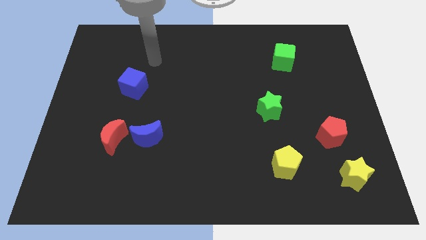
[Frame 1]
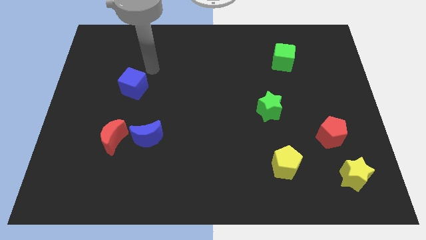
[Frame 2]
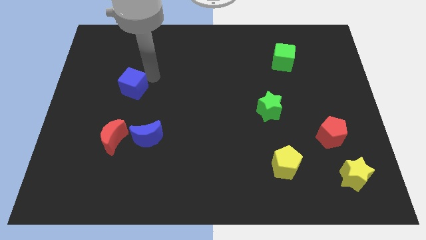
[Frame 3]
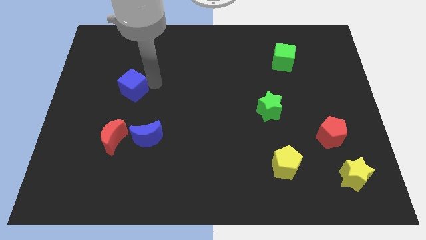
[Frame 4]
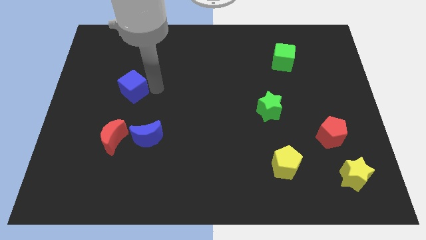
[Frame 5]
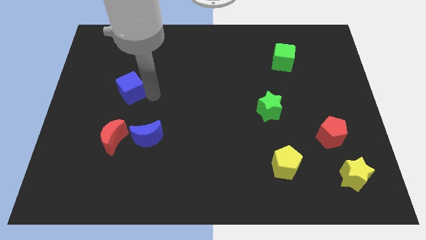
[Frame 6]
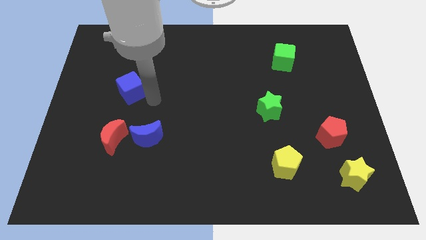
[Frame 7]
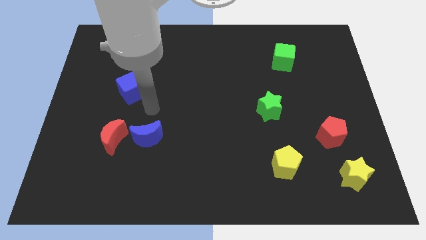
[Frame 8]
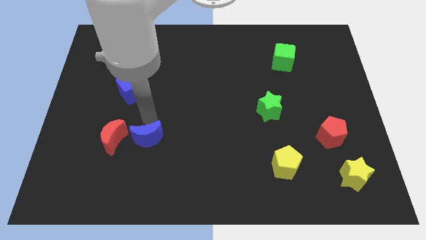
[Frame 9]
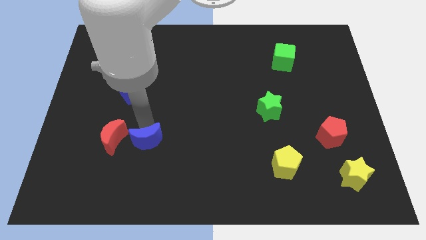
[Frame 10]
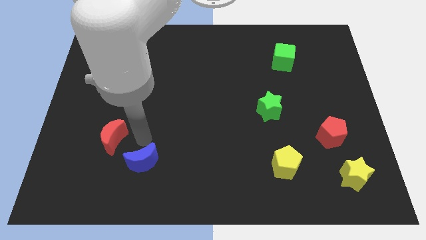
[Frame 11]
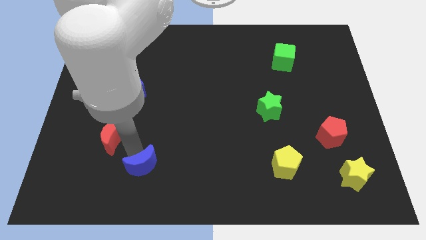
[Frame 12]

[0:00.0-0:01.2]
move the red moon away from the blue moon

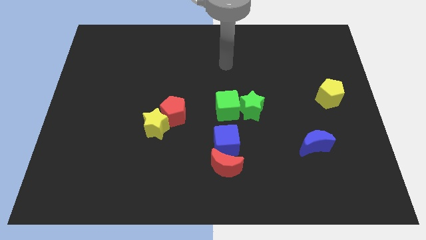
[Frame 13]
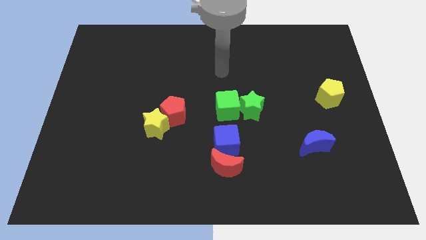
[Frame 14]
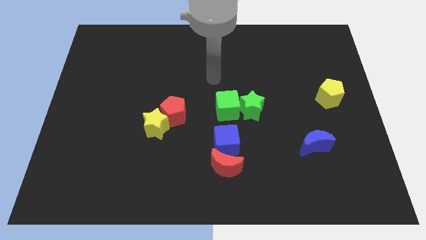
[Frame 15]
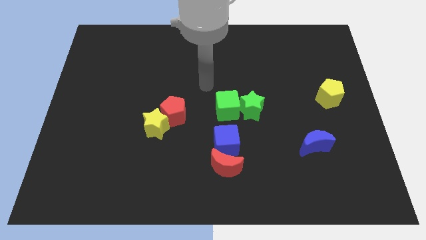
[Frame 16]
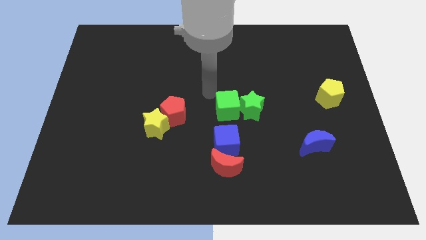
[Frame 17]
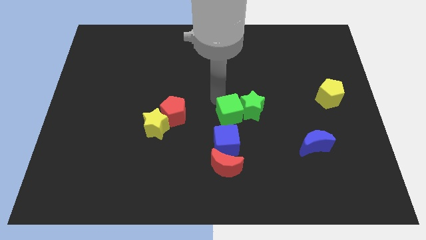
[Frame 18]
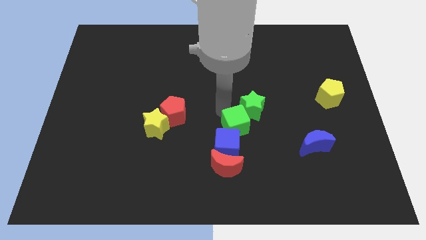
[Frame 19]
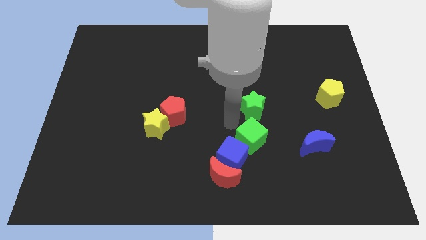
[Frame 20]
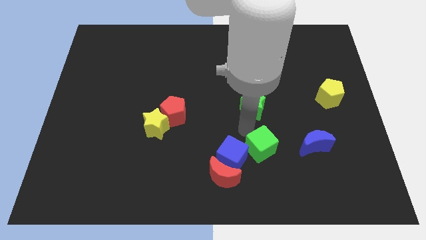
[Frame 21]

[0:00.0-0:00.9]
move the green star away from the green cube

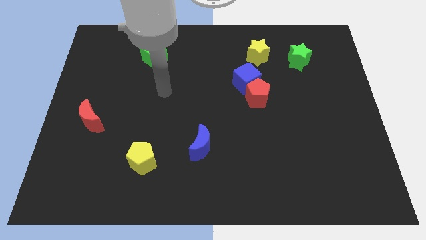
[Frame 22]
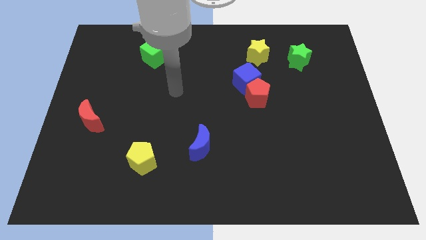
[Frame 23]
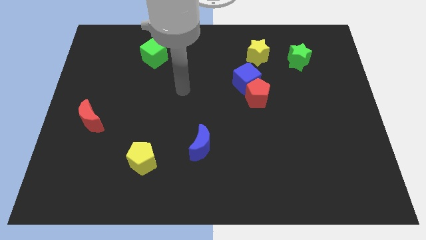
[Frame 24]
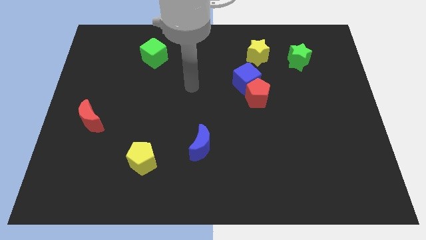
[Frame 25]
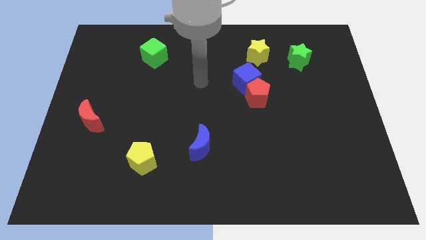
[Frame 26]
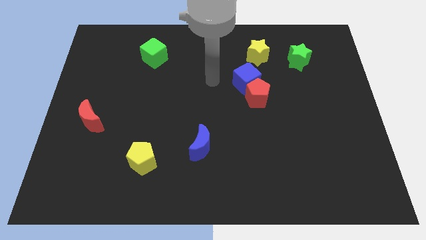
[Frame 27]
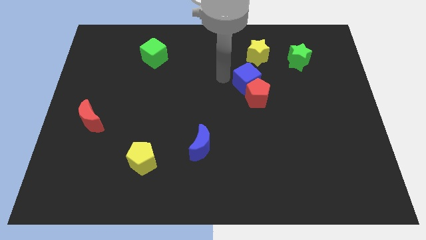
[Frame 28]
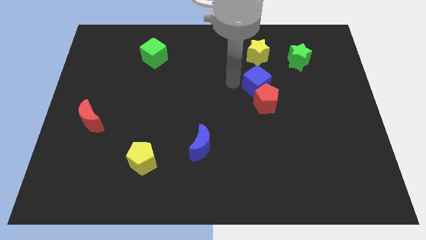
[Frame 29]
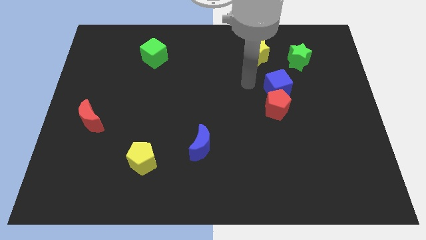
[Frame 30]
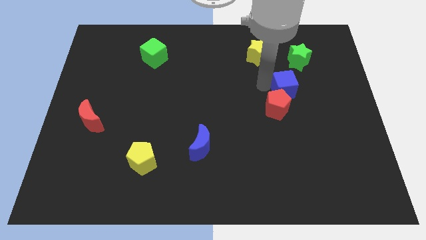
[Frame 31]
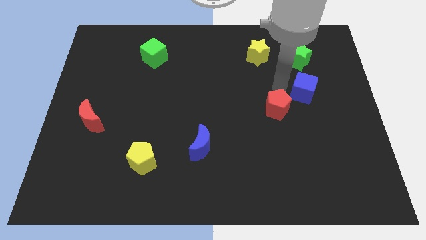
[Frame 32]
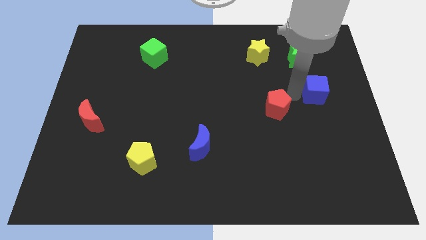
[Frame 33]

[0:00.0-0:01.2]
pull the red pentagon apart from the blue cube

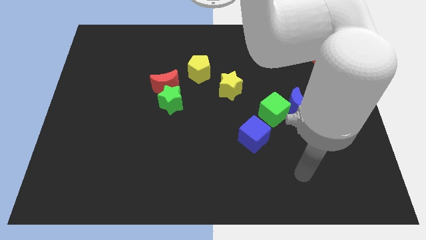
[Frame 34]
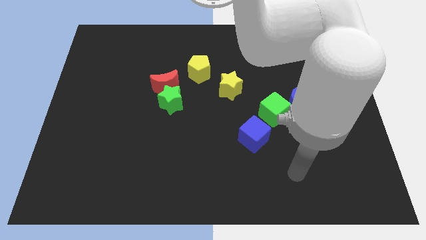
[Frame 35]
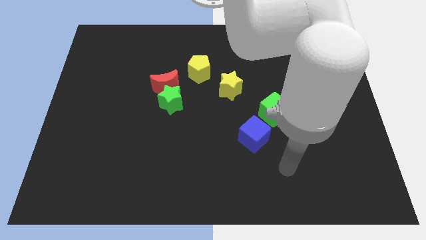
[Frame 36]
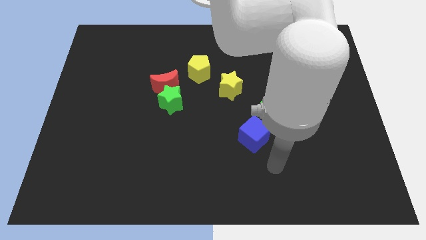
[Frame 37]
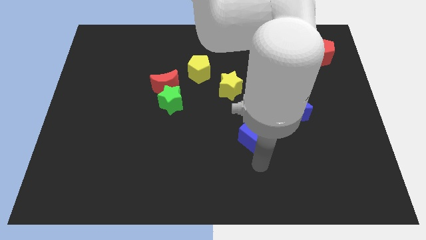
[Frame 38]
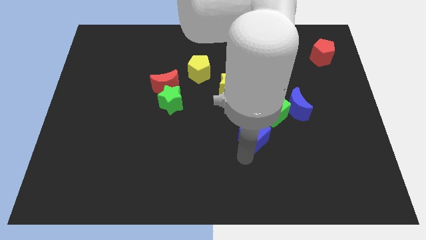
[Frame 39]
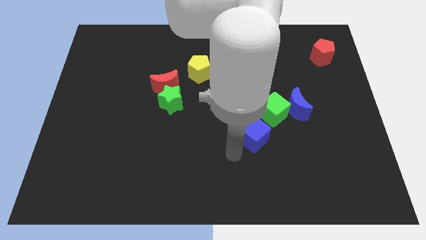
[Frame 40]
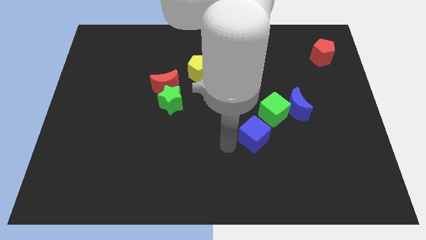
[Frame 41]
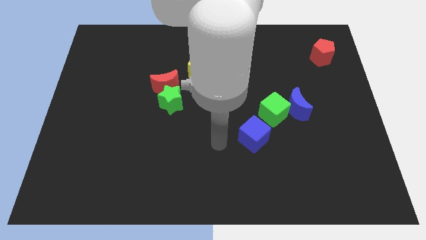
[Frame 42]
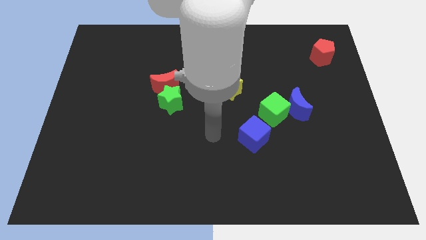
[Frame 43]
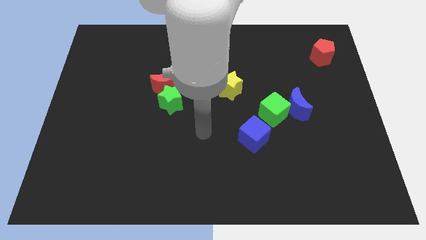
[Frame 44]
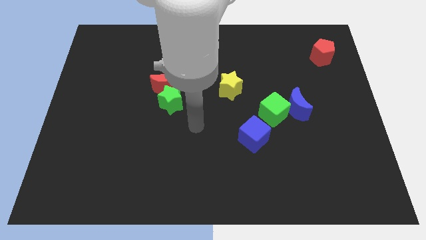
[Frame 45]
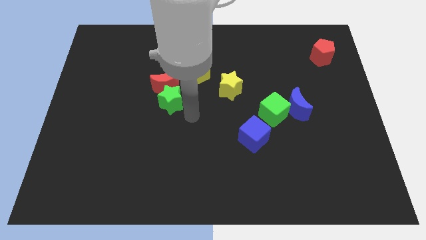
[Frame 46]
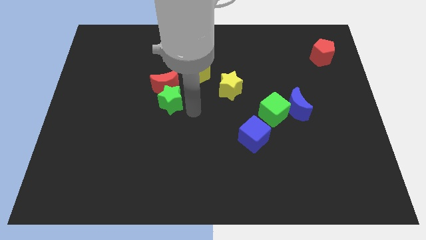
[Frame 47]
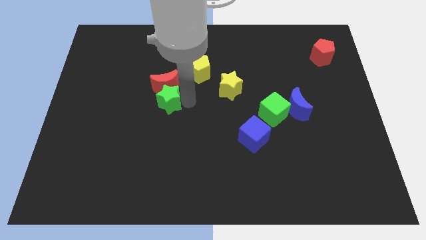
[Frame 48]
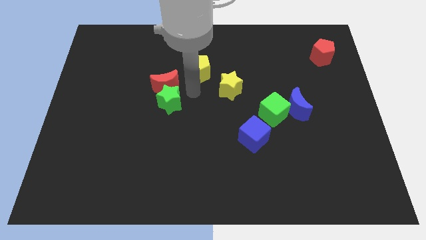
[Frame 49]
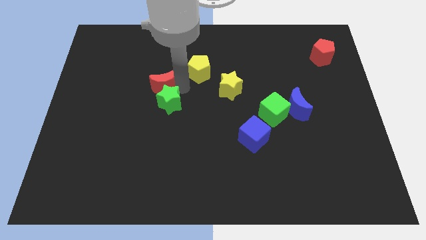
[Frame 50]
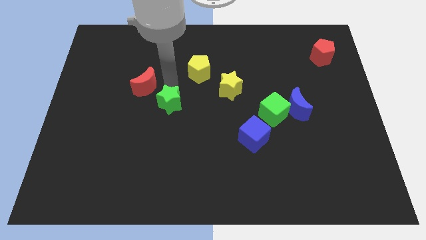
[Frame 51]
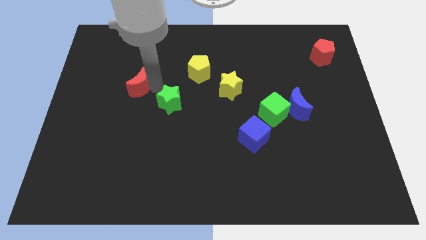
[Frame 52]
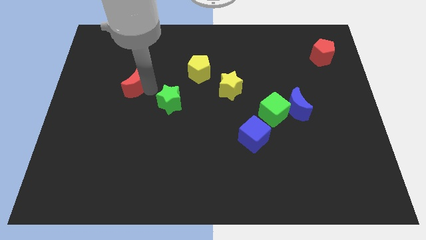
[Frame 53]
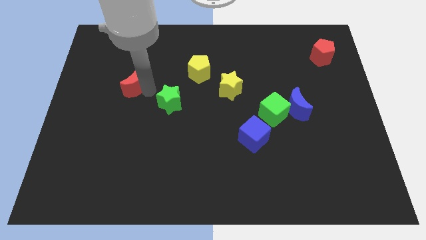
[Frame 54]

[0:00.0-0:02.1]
separate the green star from the red moon

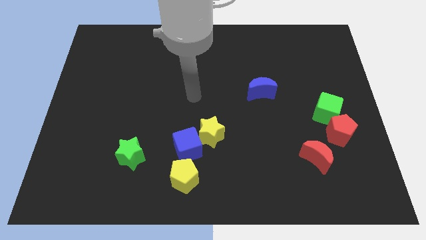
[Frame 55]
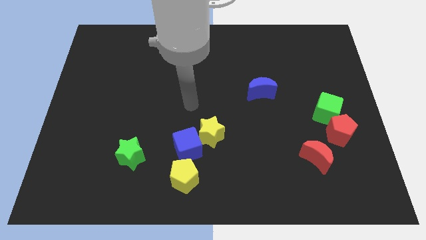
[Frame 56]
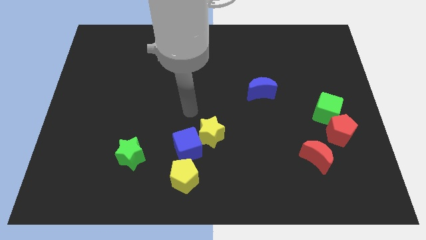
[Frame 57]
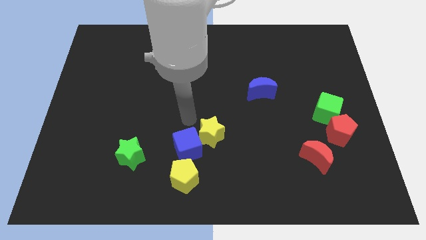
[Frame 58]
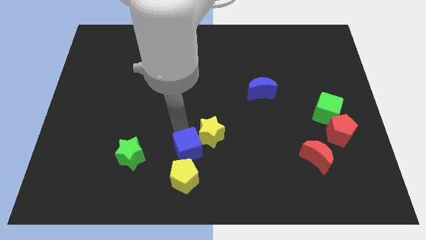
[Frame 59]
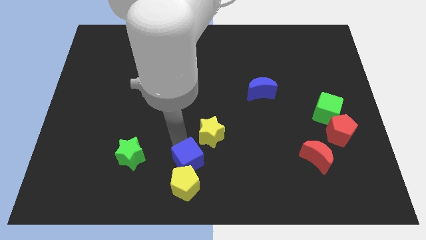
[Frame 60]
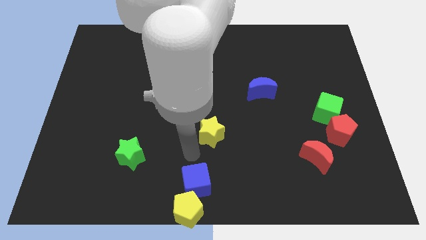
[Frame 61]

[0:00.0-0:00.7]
separate the yellow star from the blue cube

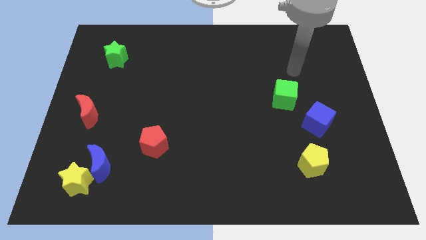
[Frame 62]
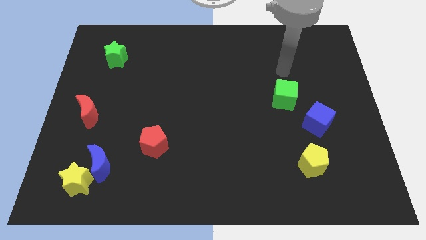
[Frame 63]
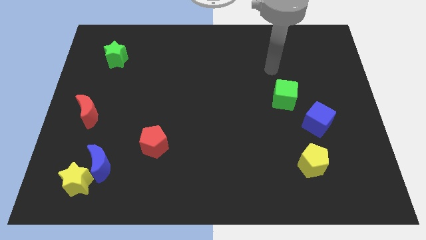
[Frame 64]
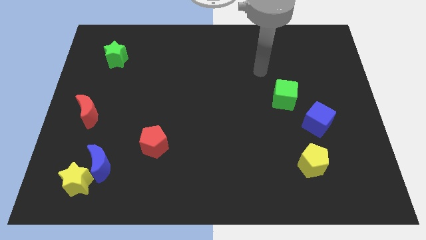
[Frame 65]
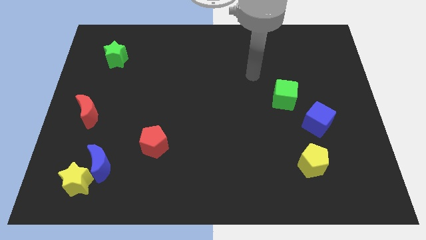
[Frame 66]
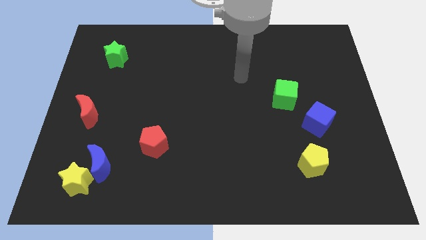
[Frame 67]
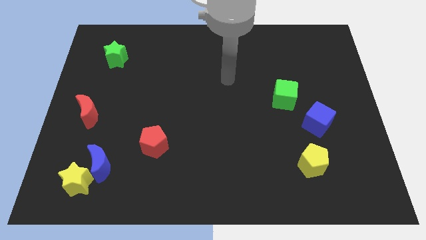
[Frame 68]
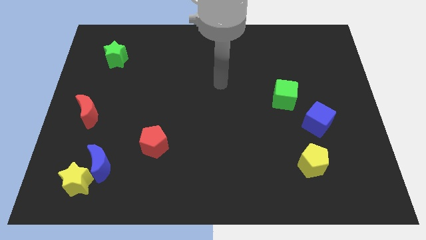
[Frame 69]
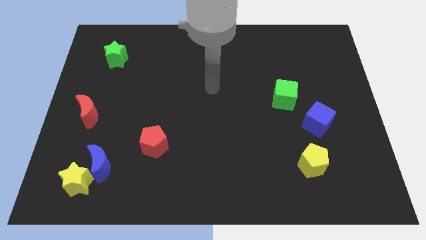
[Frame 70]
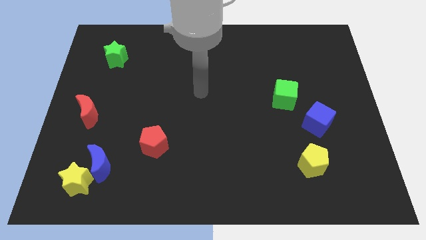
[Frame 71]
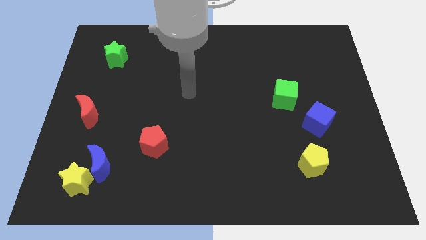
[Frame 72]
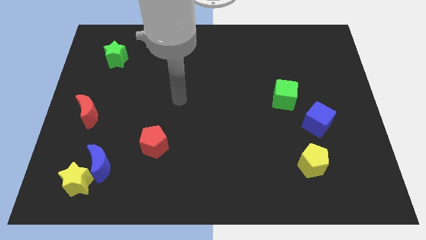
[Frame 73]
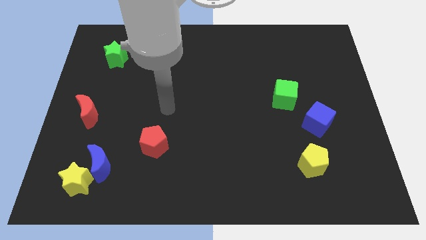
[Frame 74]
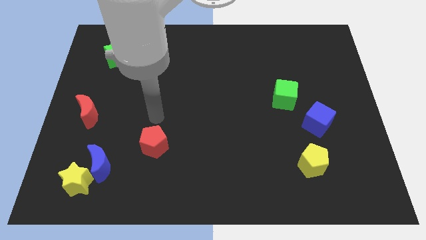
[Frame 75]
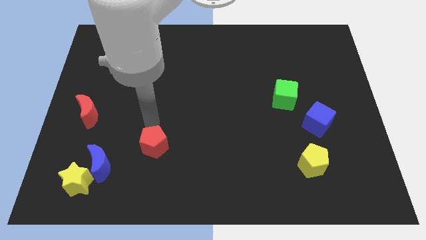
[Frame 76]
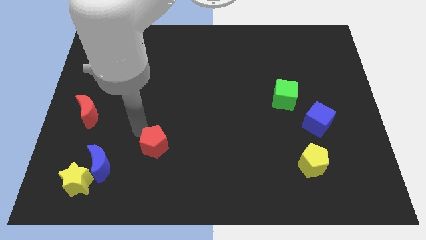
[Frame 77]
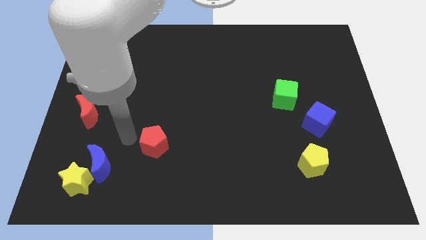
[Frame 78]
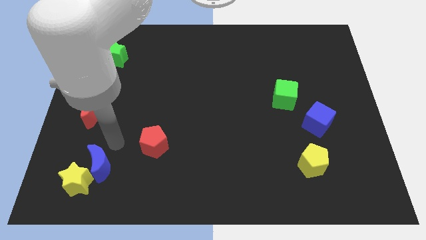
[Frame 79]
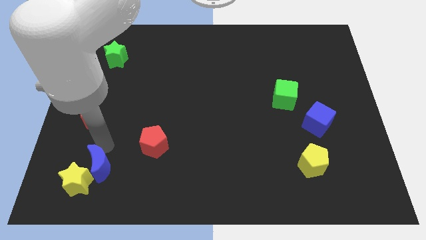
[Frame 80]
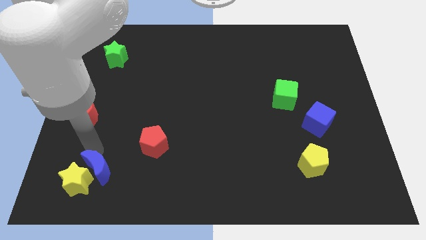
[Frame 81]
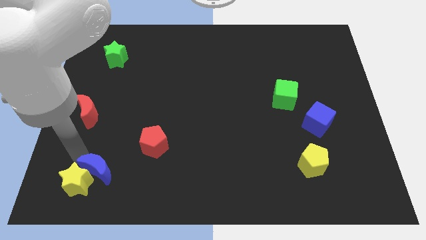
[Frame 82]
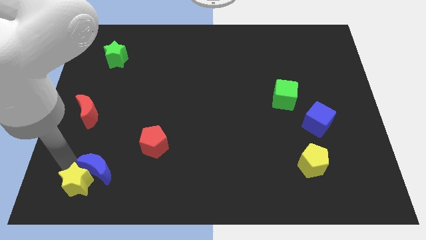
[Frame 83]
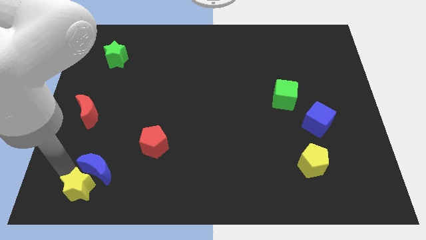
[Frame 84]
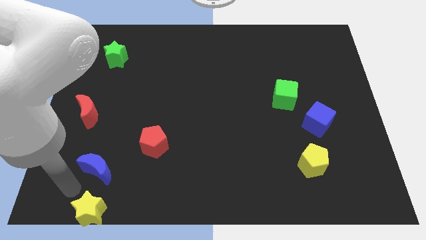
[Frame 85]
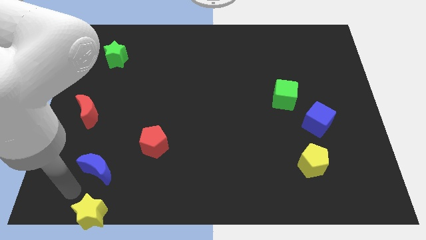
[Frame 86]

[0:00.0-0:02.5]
separate the blue moon from the yellow star

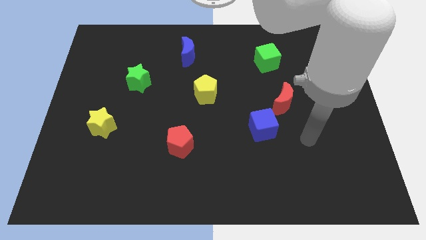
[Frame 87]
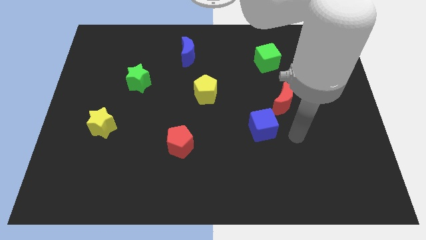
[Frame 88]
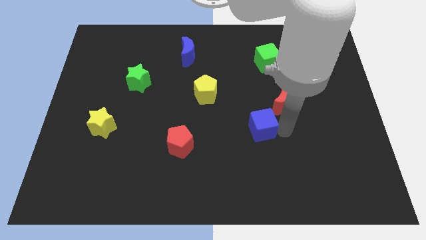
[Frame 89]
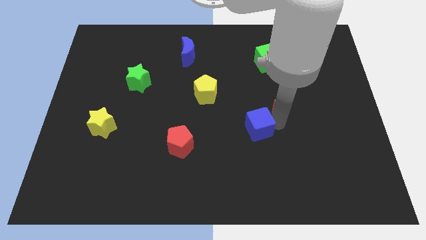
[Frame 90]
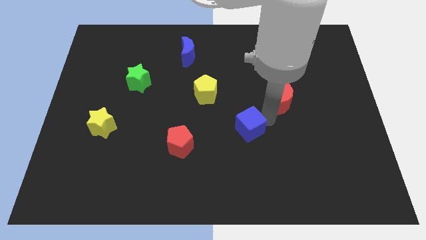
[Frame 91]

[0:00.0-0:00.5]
separate the red moon from the blue cube

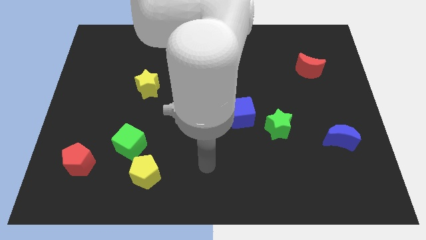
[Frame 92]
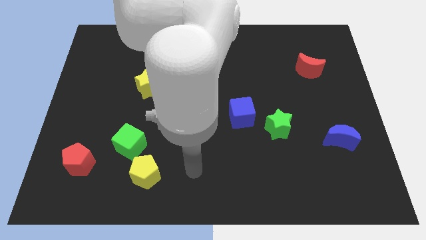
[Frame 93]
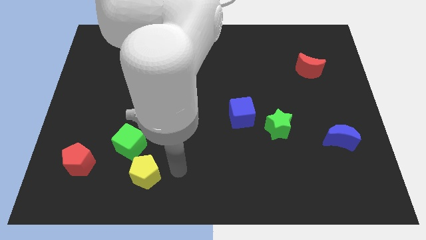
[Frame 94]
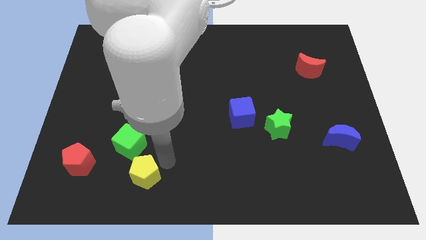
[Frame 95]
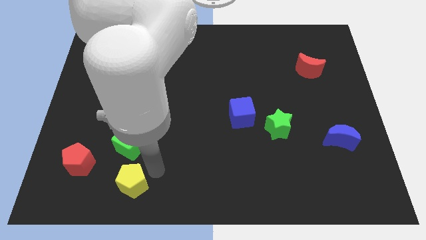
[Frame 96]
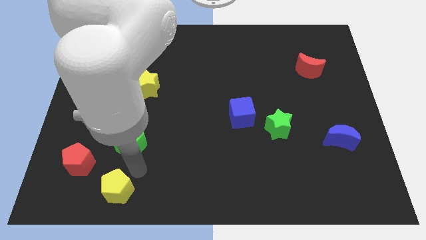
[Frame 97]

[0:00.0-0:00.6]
pull the green cube apart from the yellow pentagon
